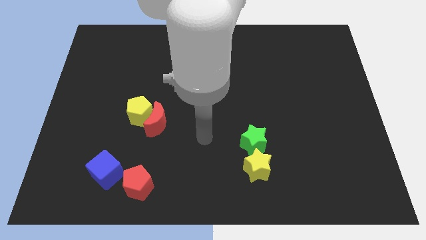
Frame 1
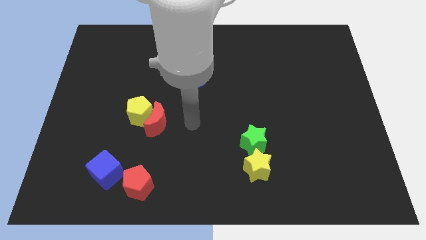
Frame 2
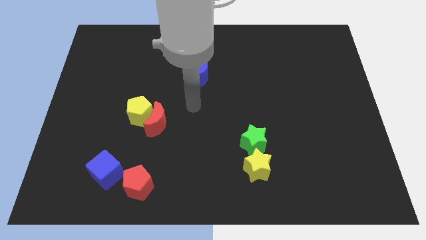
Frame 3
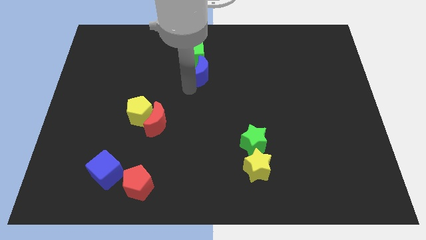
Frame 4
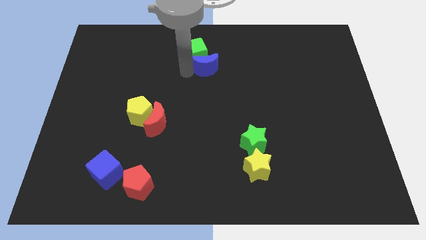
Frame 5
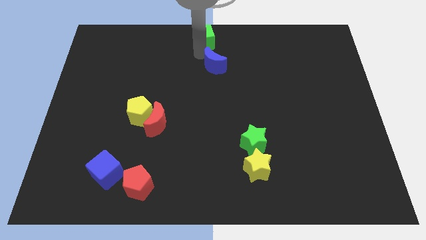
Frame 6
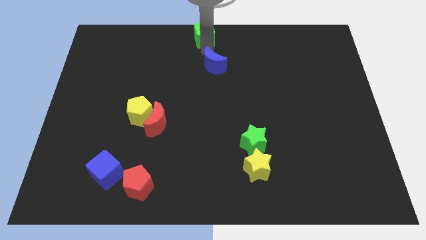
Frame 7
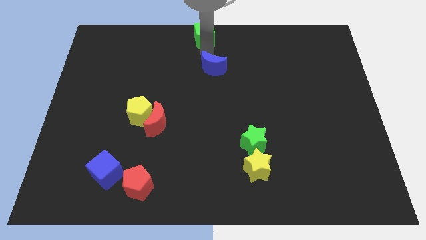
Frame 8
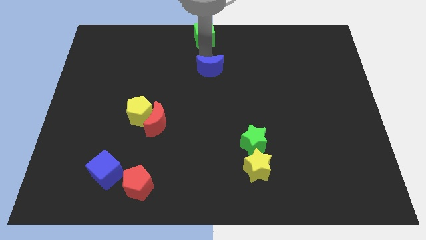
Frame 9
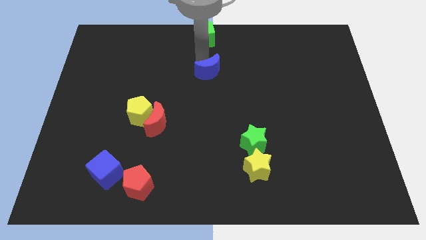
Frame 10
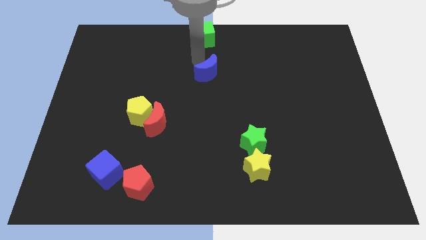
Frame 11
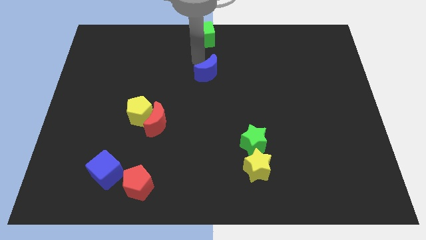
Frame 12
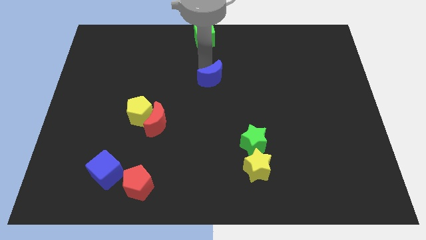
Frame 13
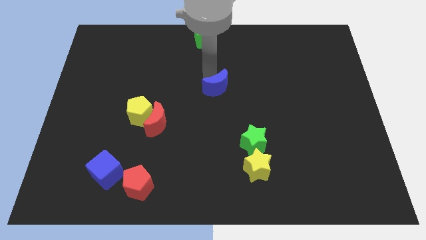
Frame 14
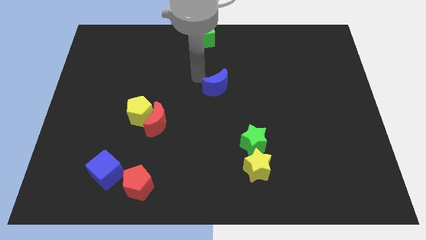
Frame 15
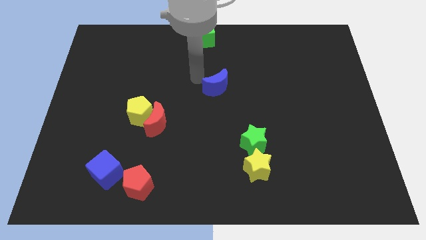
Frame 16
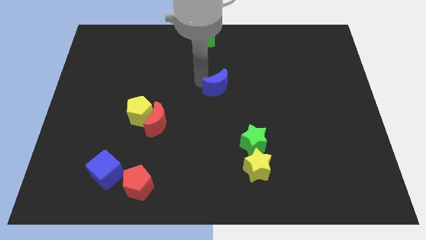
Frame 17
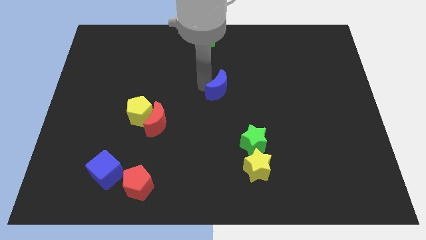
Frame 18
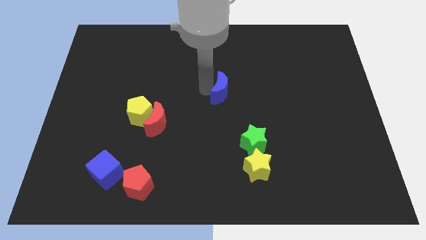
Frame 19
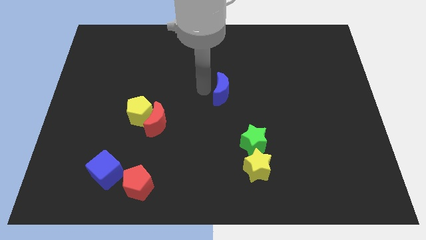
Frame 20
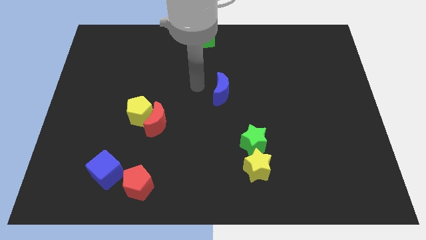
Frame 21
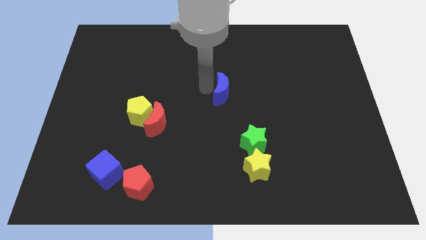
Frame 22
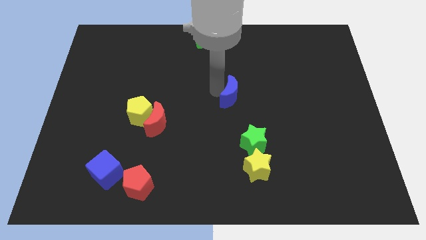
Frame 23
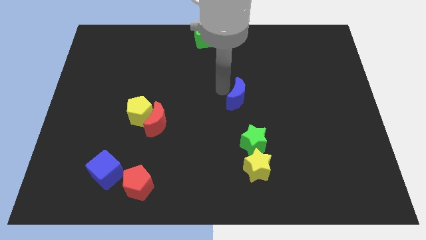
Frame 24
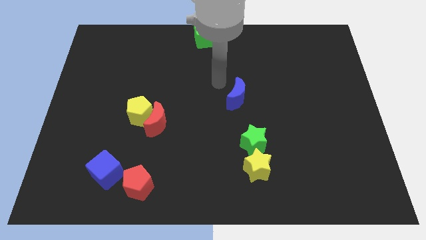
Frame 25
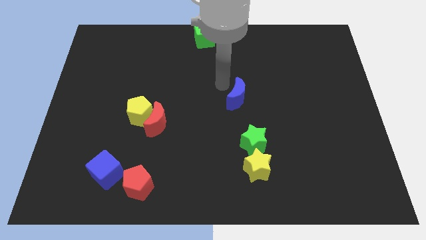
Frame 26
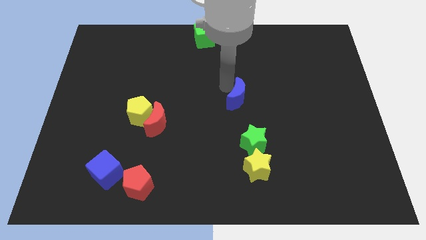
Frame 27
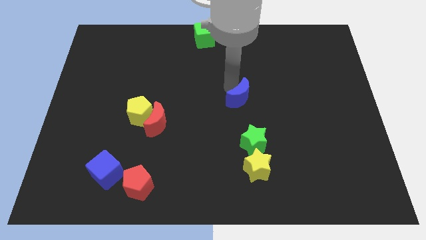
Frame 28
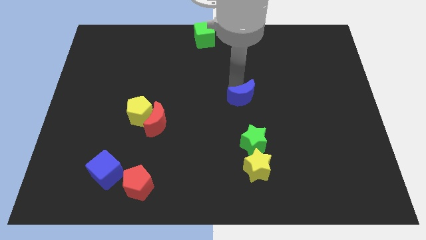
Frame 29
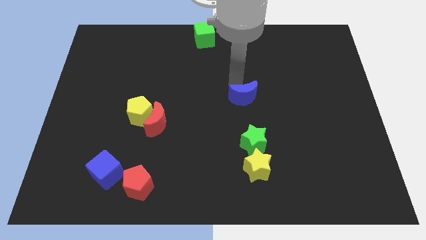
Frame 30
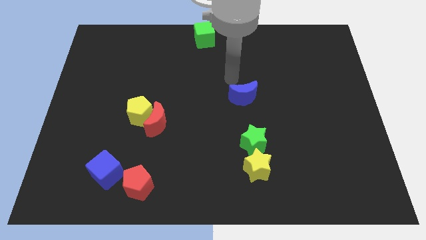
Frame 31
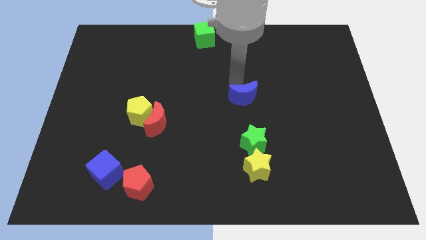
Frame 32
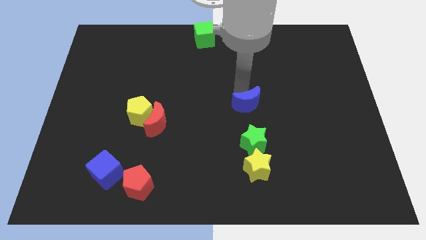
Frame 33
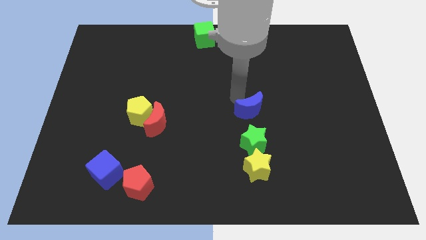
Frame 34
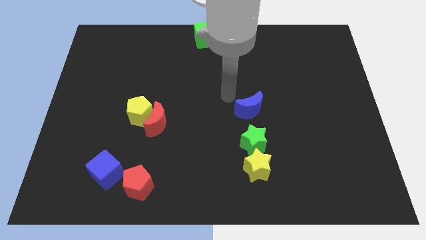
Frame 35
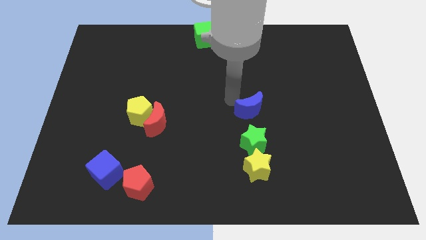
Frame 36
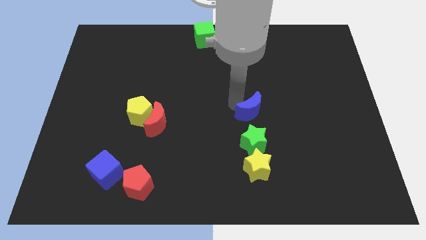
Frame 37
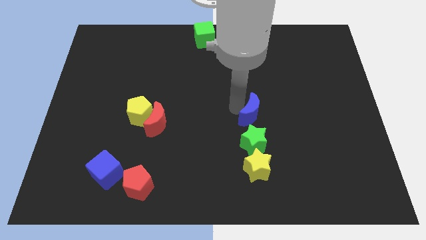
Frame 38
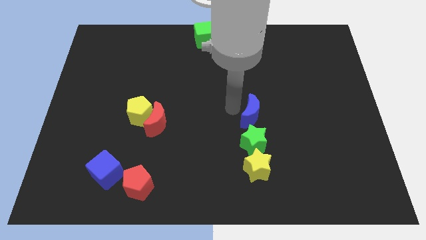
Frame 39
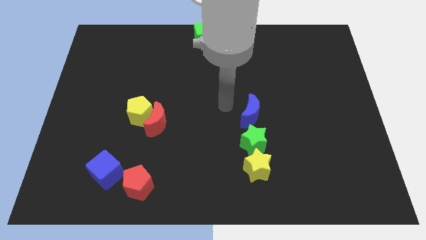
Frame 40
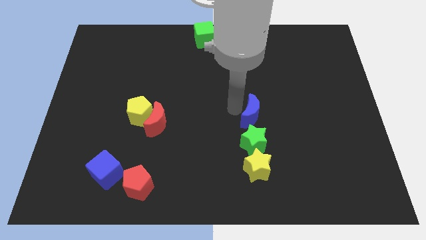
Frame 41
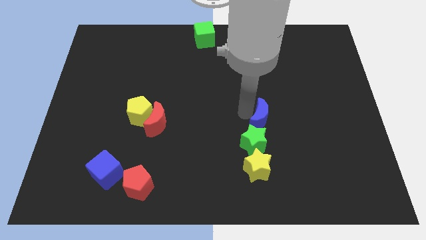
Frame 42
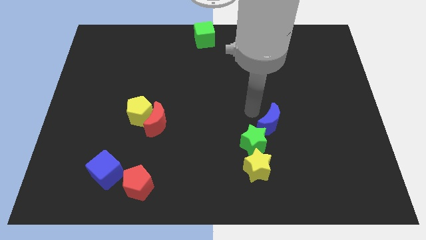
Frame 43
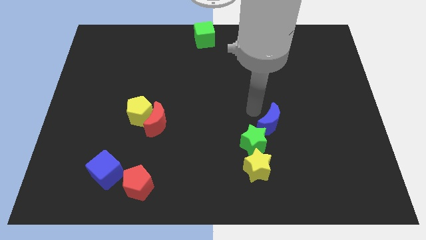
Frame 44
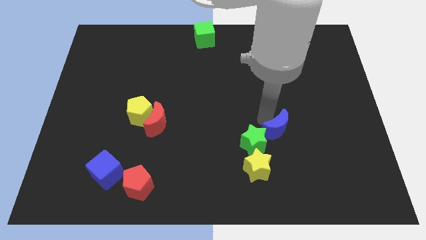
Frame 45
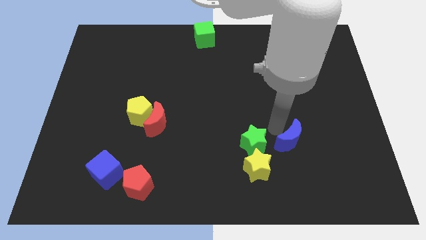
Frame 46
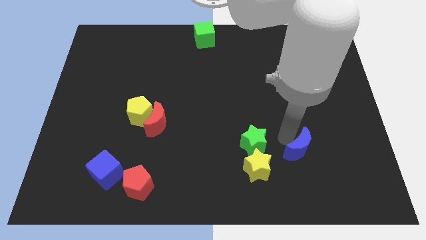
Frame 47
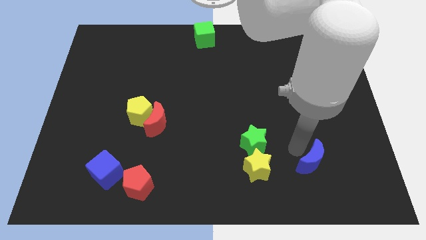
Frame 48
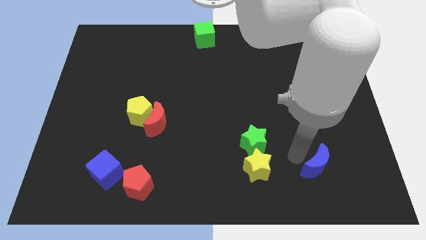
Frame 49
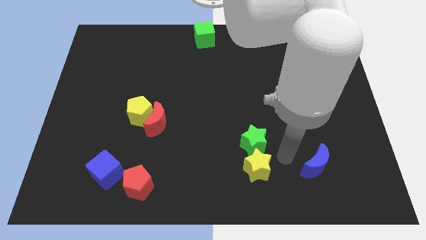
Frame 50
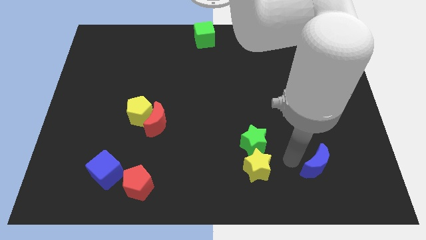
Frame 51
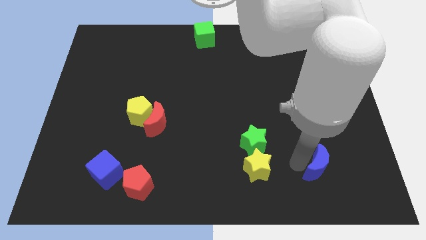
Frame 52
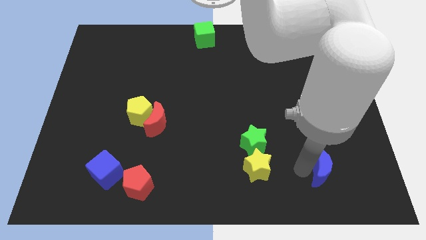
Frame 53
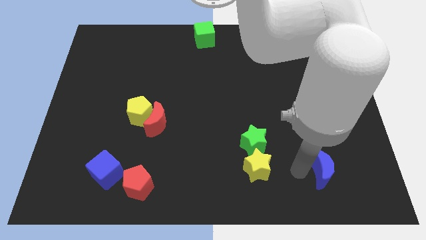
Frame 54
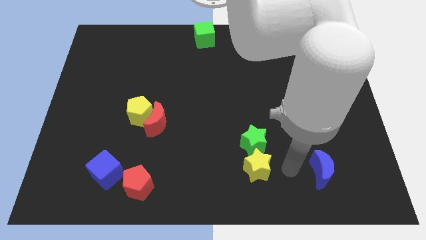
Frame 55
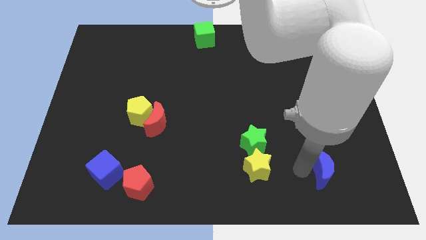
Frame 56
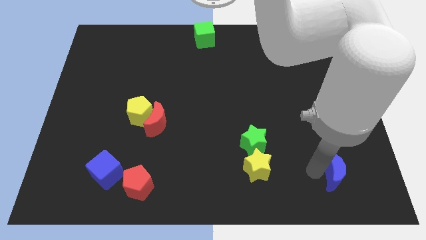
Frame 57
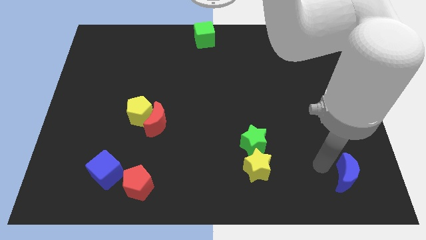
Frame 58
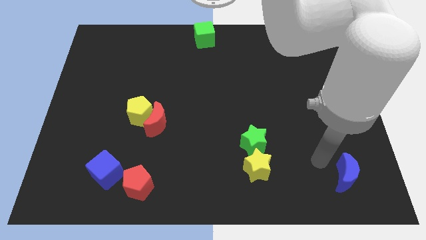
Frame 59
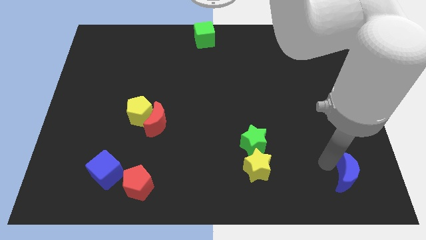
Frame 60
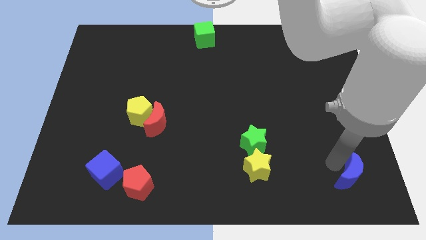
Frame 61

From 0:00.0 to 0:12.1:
move the blue moon to the bottom right of the board
